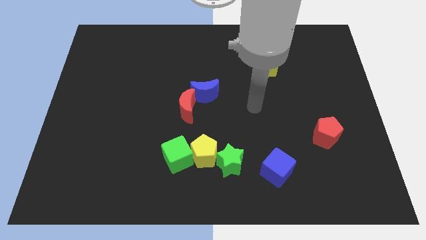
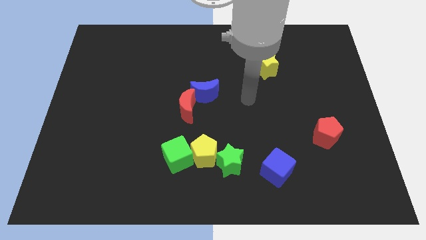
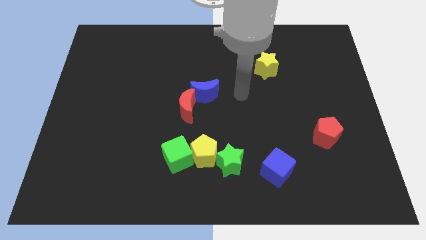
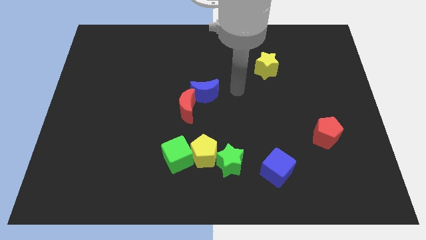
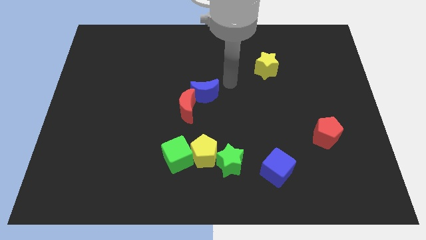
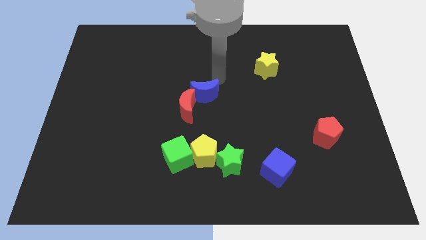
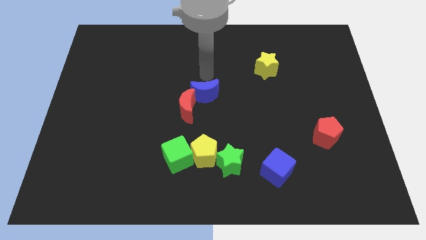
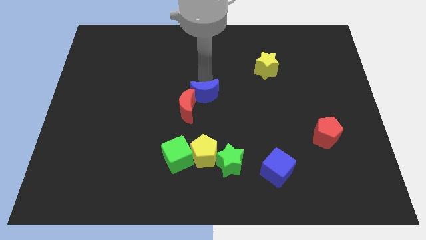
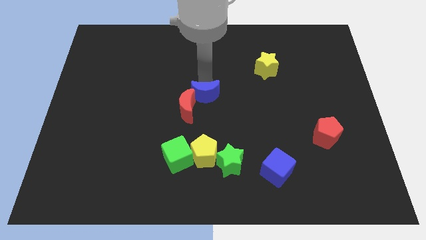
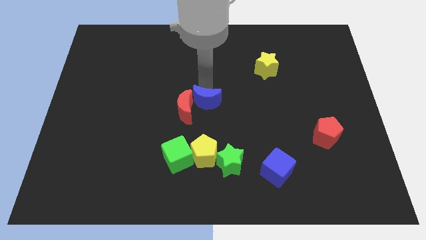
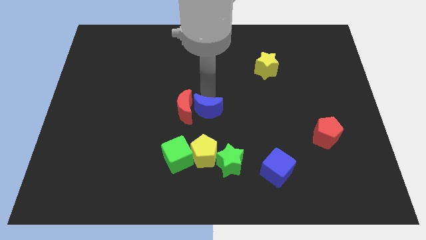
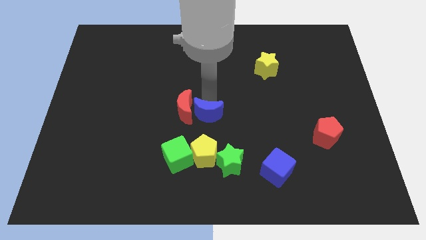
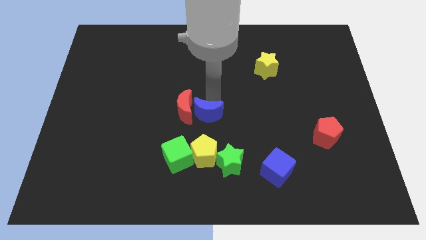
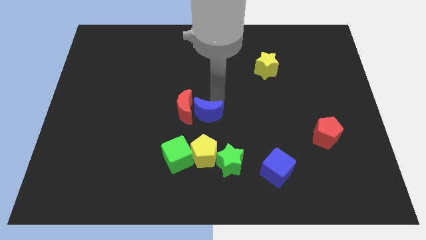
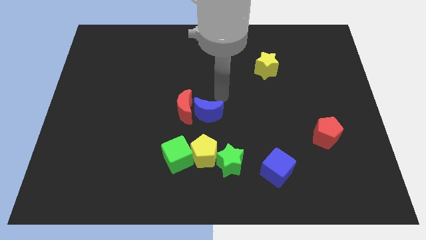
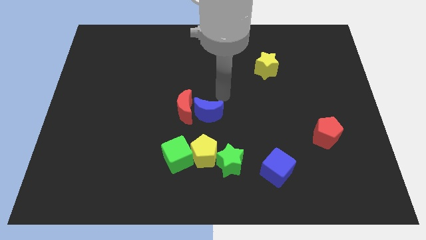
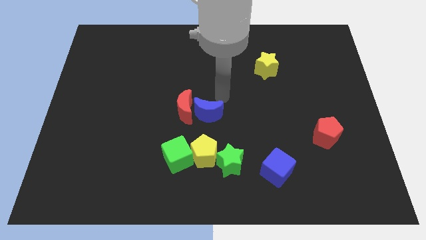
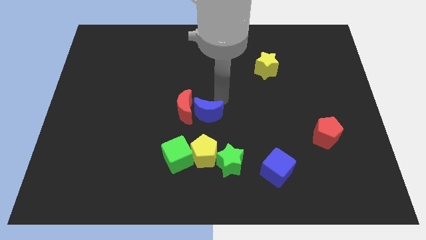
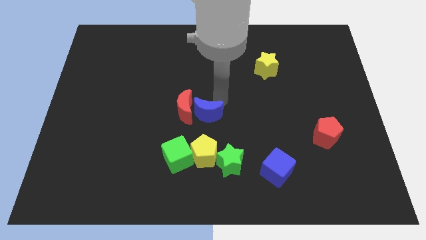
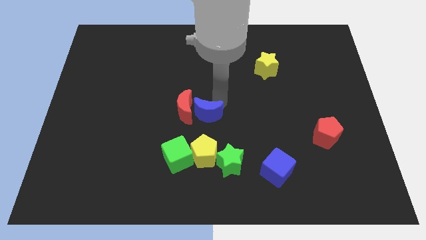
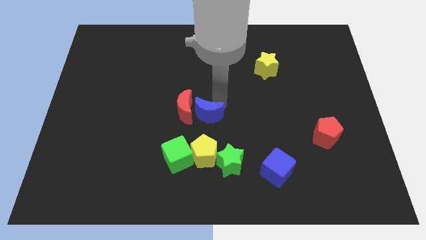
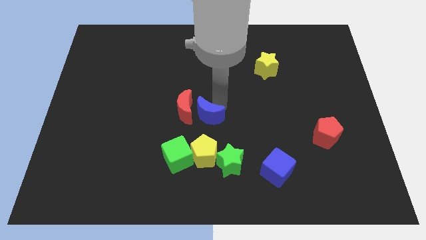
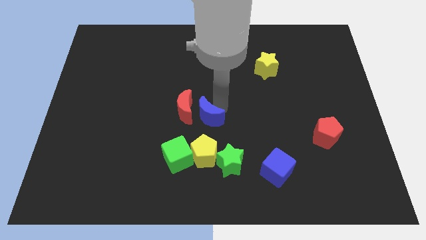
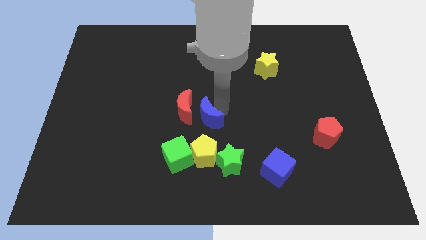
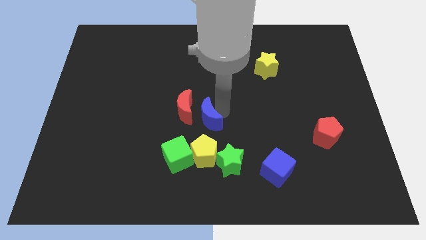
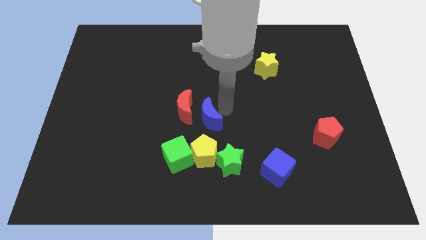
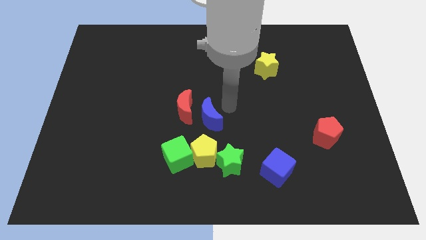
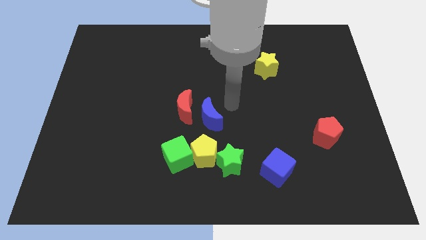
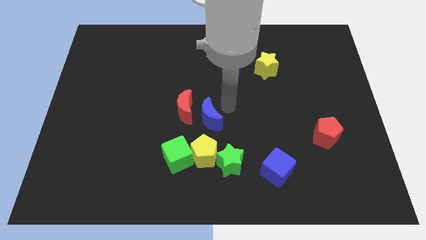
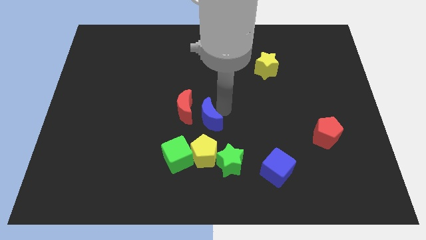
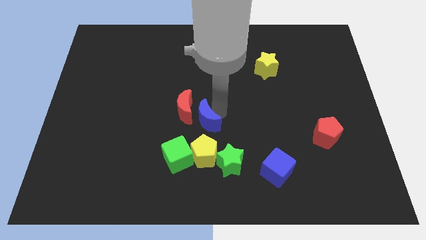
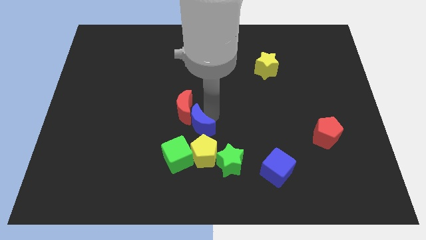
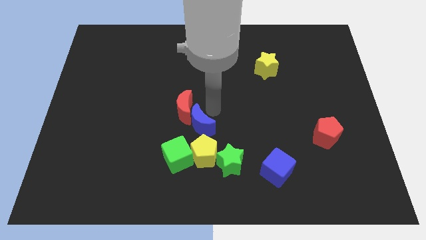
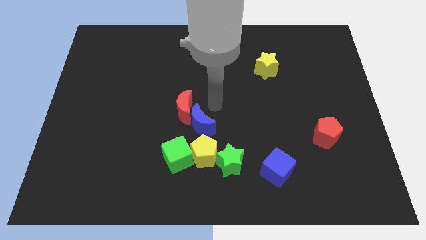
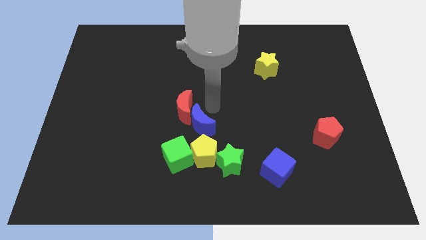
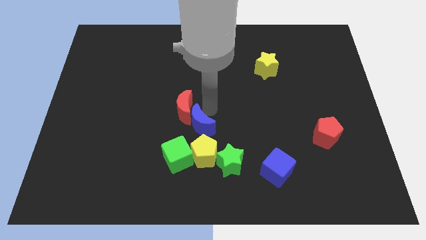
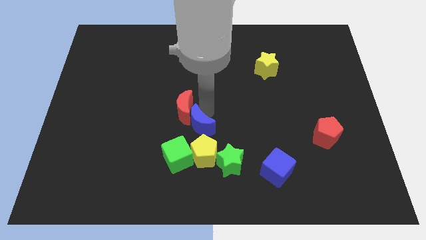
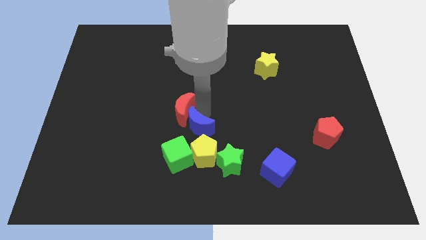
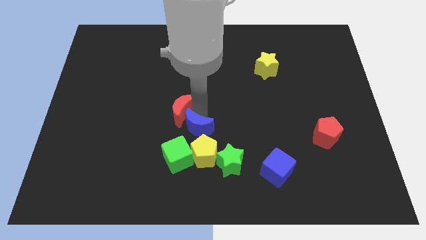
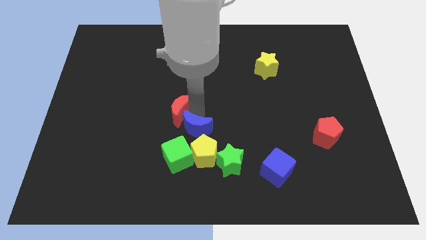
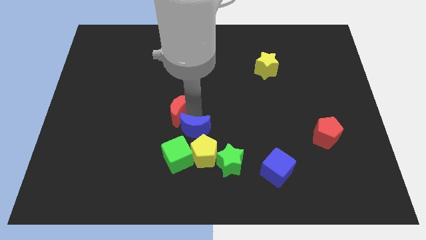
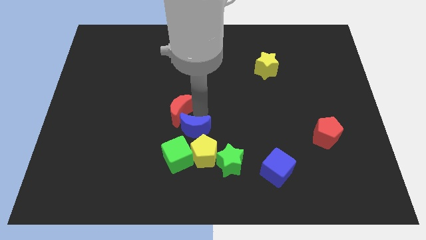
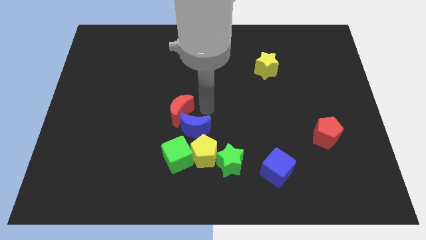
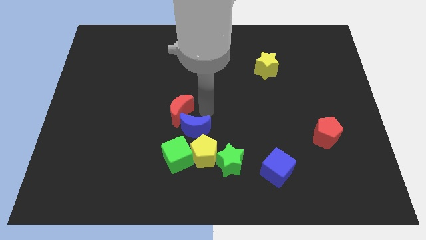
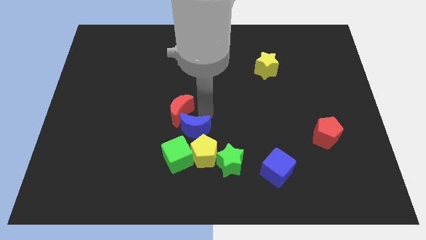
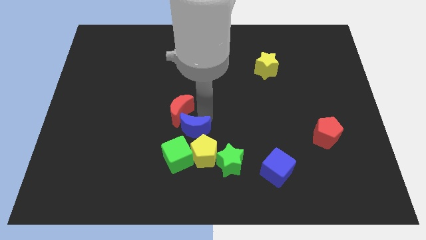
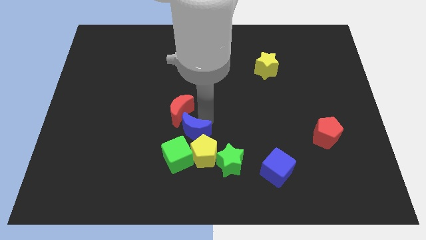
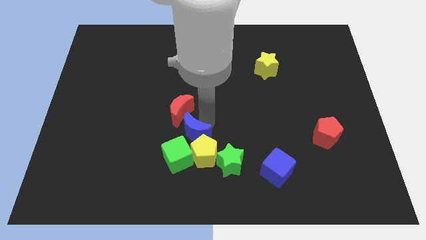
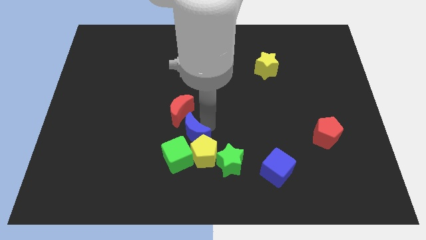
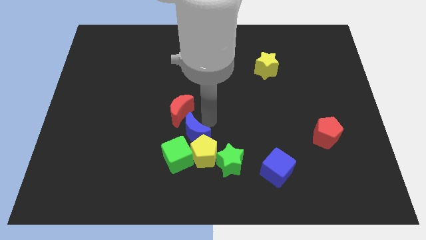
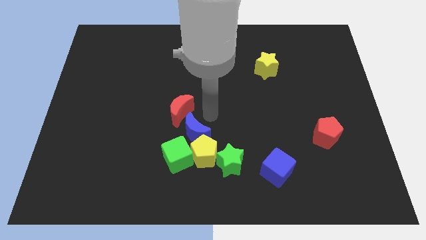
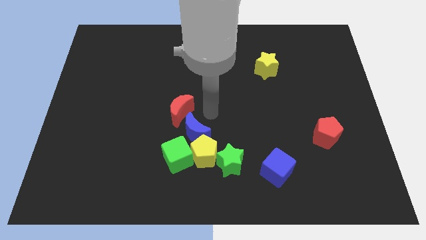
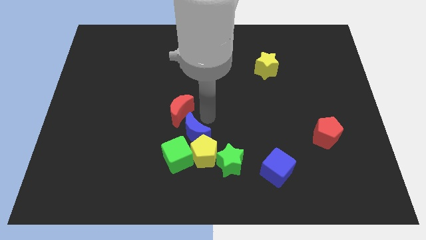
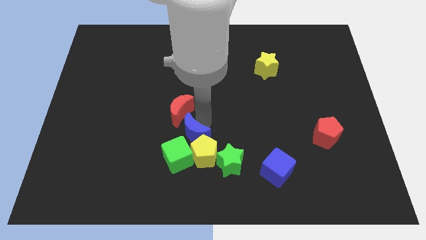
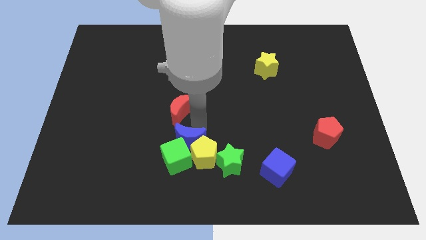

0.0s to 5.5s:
slide the blue moon close to the green cube

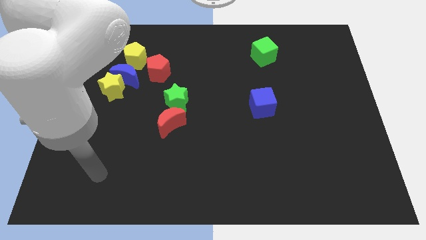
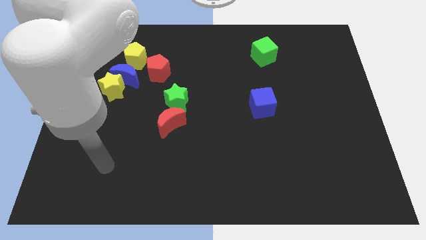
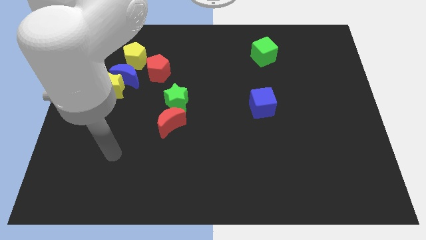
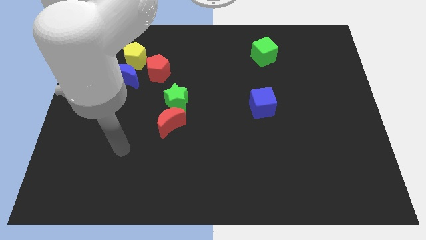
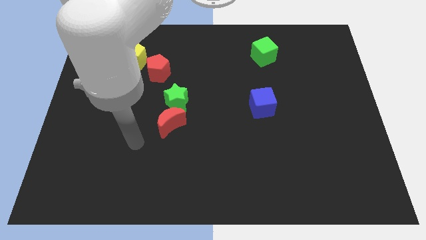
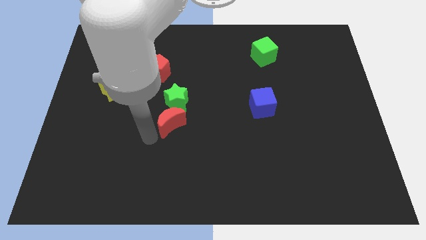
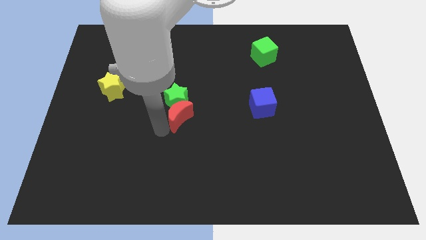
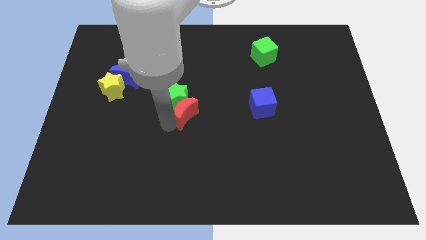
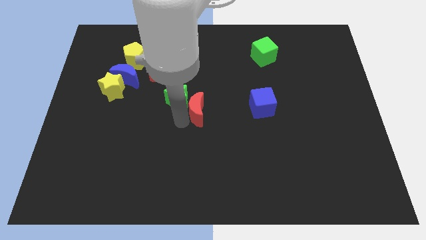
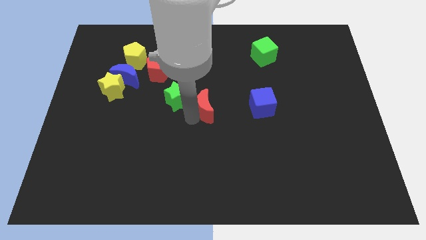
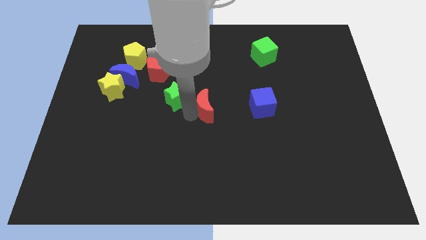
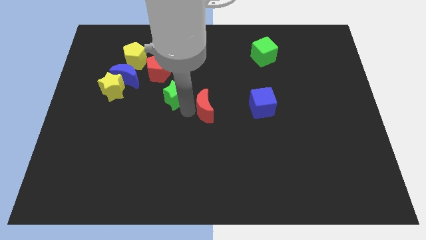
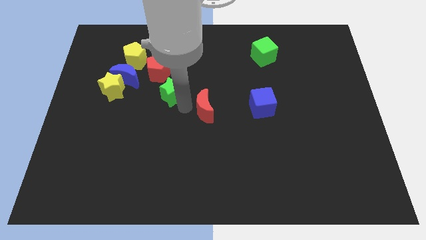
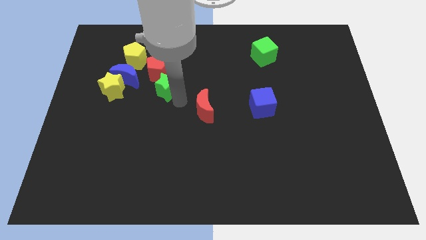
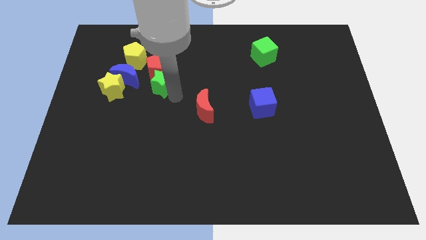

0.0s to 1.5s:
put the green star towards the red pentagon
